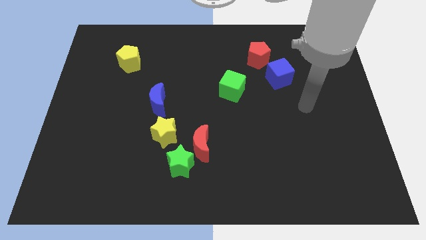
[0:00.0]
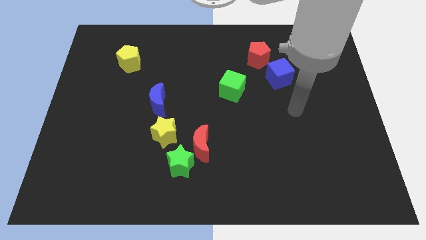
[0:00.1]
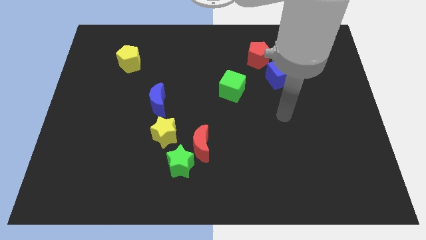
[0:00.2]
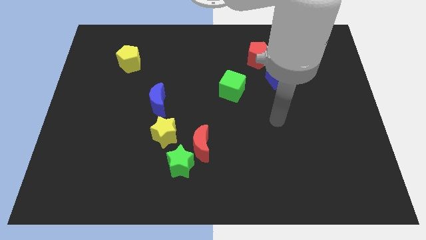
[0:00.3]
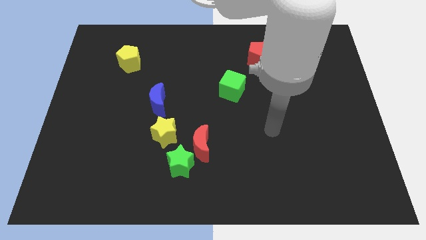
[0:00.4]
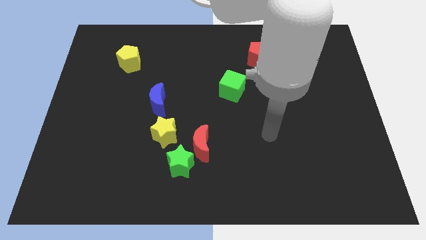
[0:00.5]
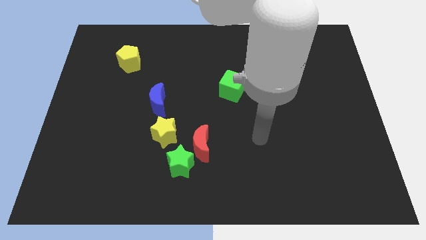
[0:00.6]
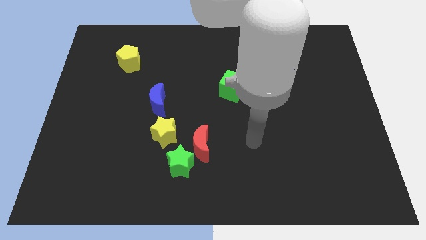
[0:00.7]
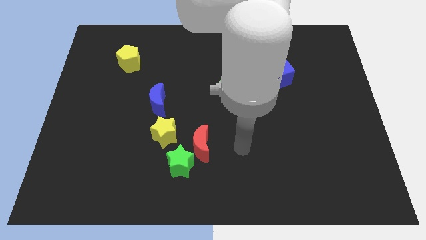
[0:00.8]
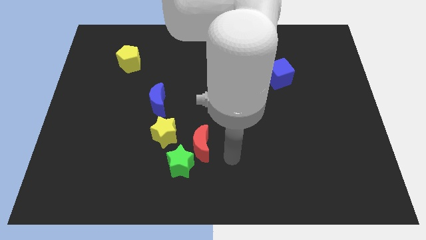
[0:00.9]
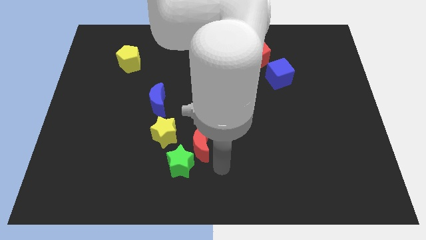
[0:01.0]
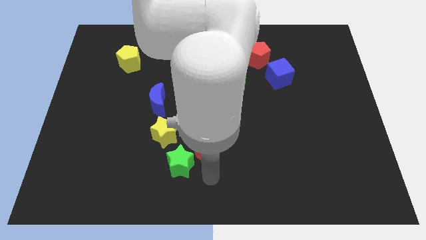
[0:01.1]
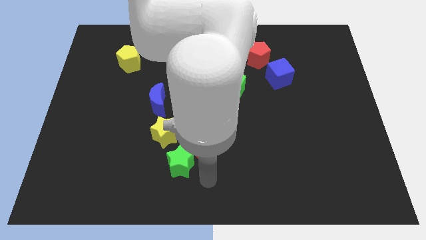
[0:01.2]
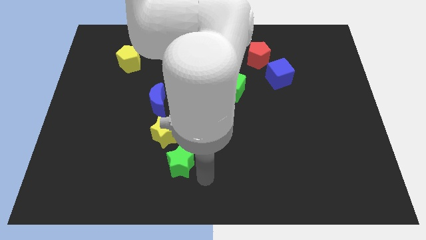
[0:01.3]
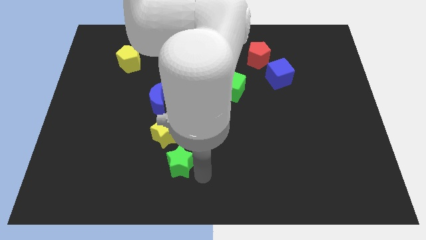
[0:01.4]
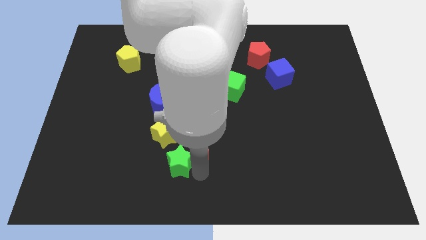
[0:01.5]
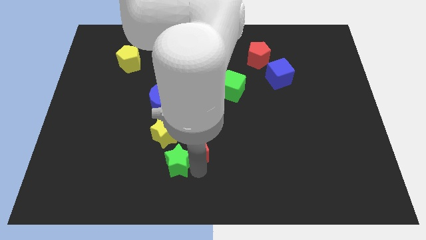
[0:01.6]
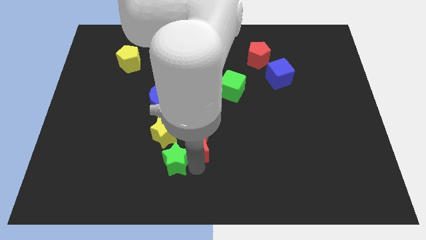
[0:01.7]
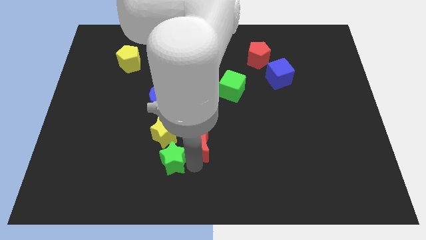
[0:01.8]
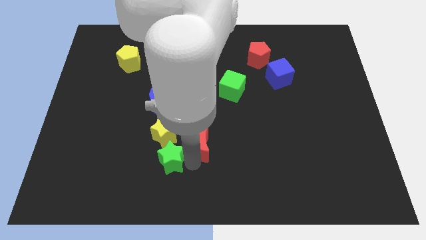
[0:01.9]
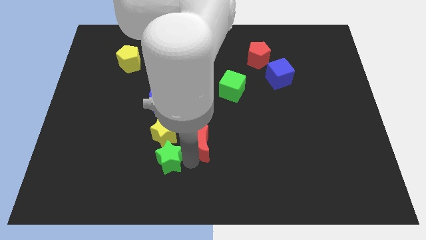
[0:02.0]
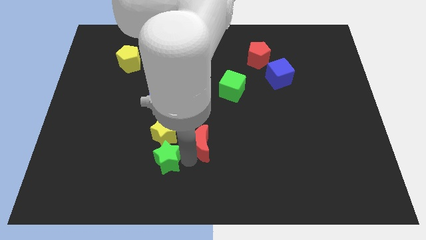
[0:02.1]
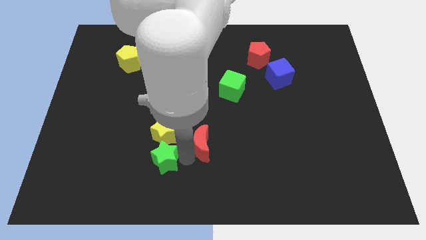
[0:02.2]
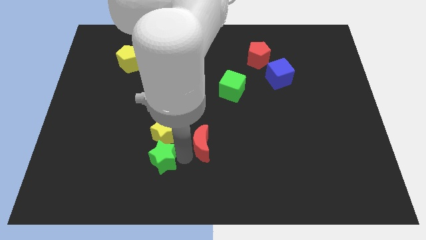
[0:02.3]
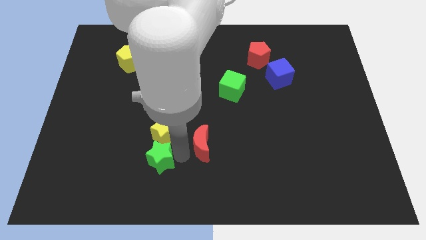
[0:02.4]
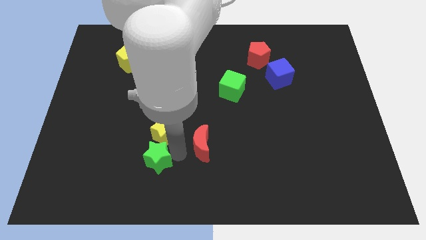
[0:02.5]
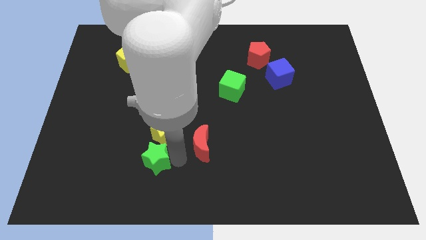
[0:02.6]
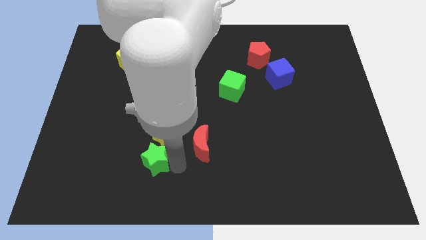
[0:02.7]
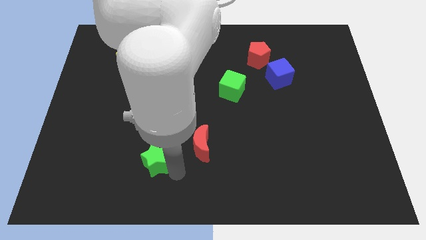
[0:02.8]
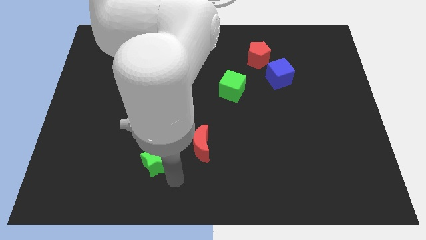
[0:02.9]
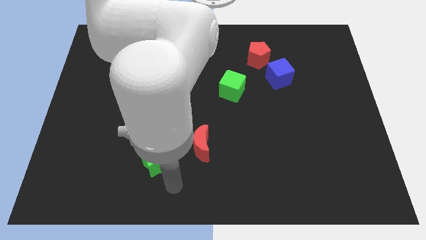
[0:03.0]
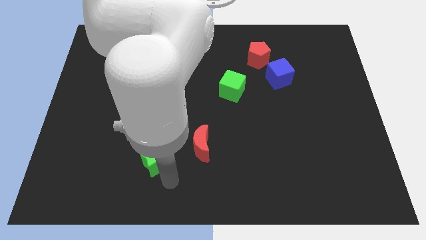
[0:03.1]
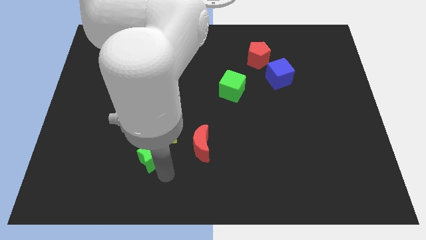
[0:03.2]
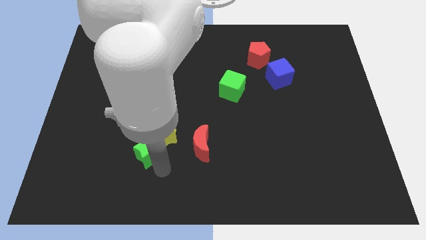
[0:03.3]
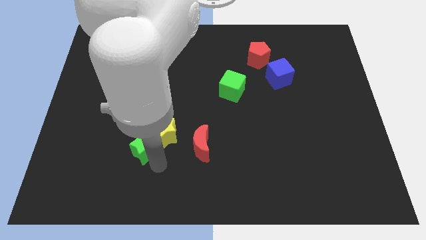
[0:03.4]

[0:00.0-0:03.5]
slightly move the green star upwards and to the left

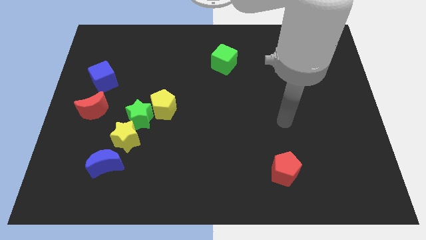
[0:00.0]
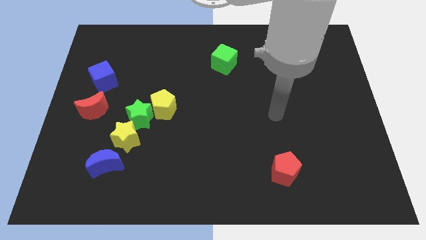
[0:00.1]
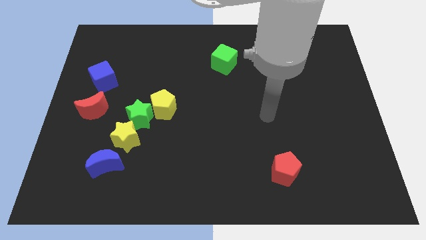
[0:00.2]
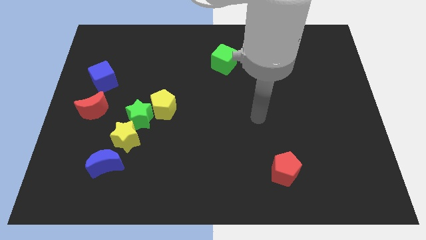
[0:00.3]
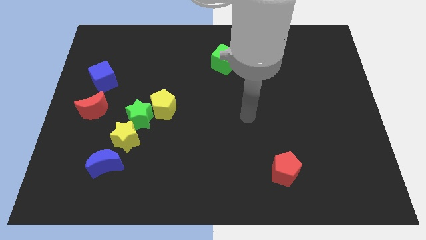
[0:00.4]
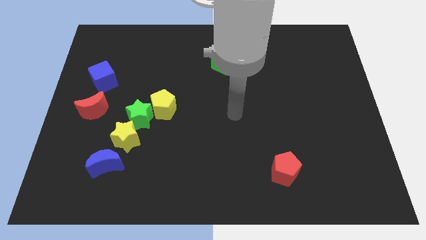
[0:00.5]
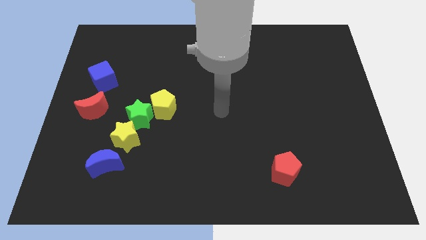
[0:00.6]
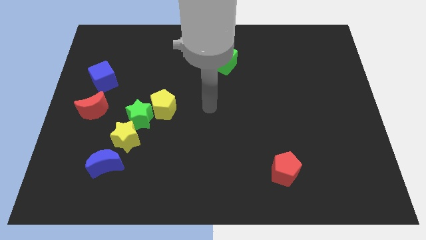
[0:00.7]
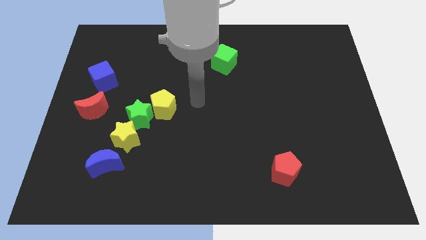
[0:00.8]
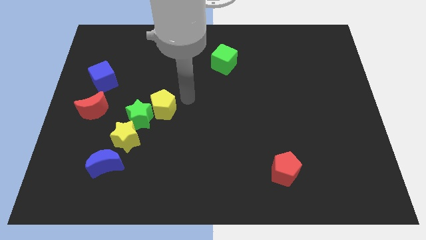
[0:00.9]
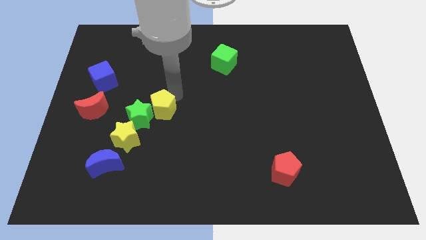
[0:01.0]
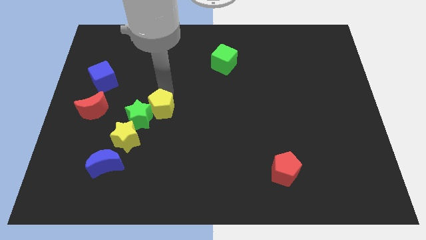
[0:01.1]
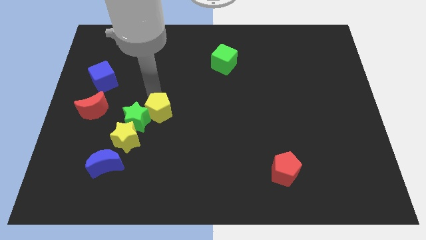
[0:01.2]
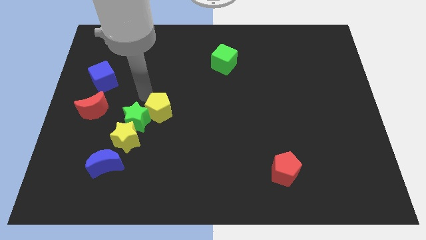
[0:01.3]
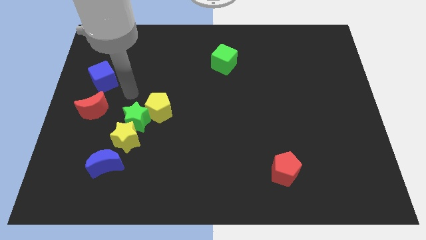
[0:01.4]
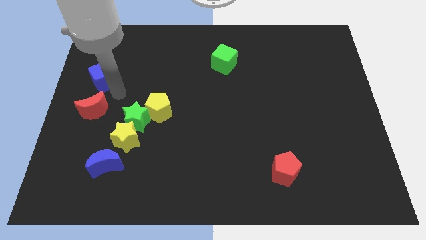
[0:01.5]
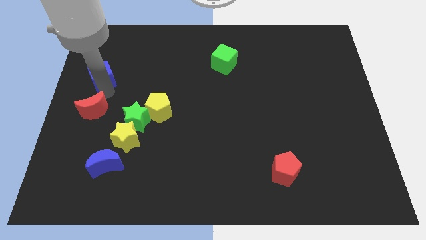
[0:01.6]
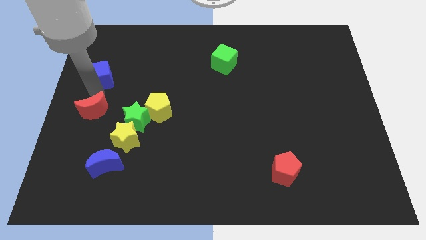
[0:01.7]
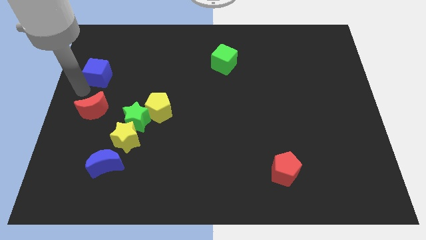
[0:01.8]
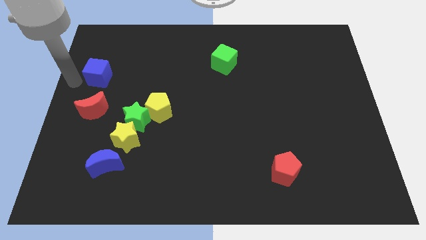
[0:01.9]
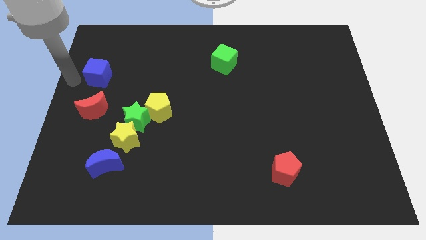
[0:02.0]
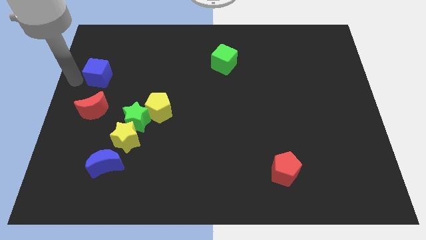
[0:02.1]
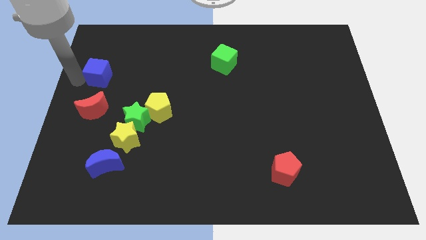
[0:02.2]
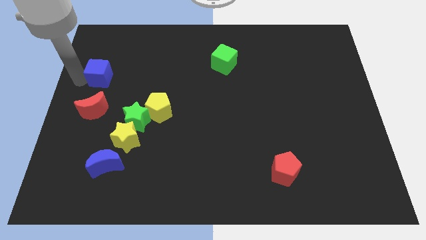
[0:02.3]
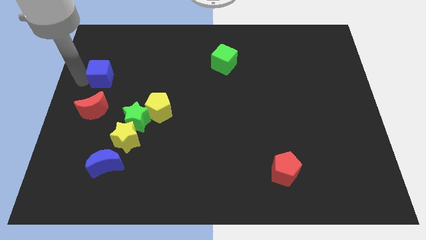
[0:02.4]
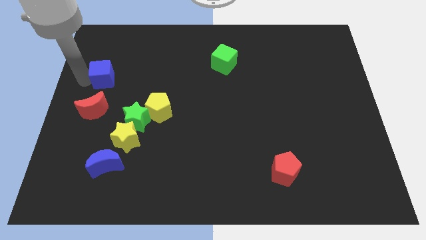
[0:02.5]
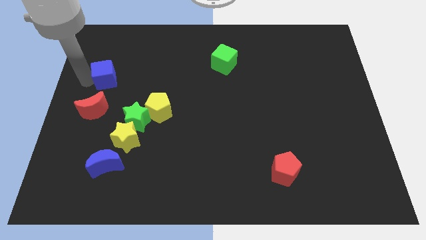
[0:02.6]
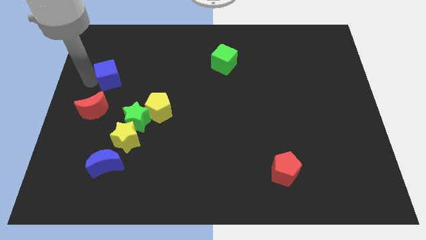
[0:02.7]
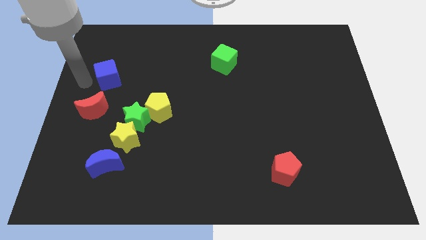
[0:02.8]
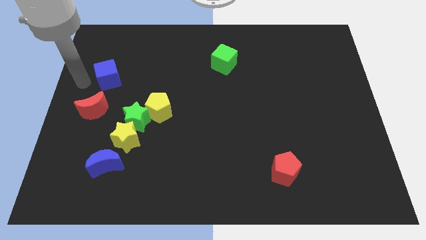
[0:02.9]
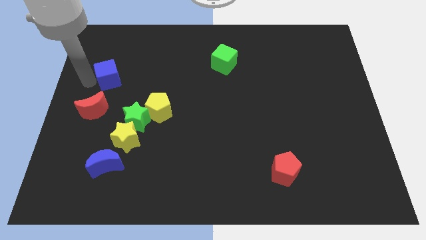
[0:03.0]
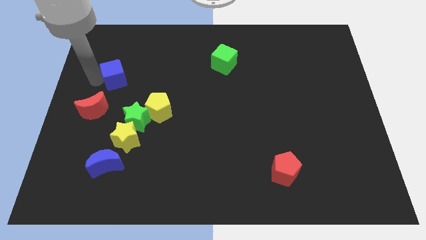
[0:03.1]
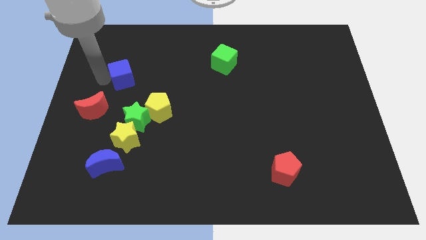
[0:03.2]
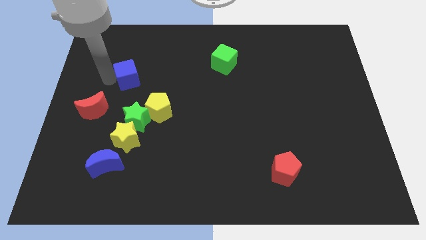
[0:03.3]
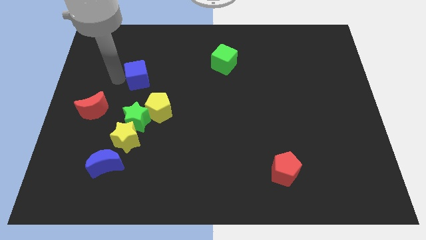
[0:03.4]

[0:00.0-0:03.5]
slightly push the blue cube to the right

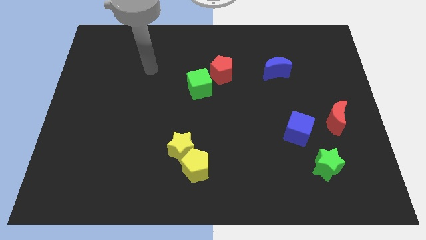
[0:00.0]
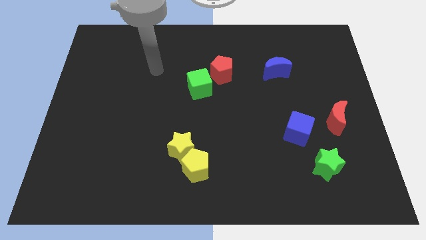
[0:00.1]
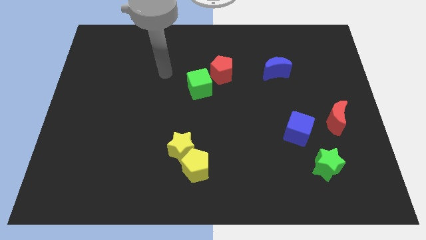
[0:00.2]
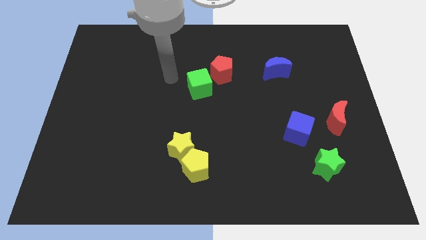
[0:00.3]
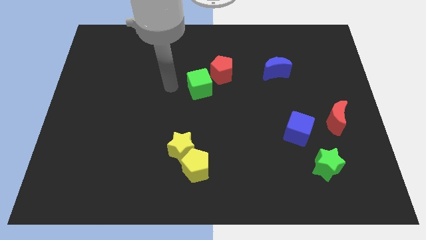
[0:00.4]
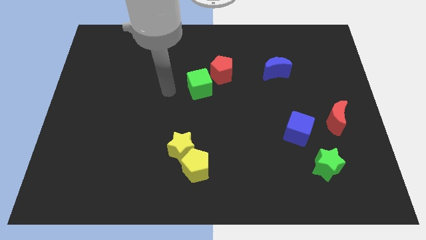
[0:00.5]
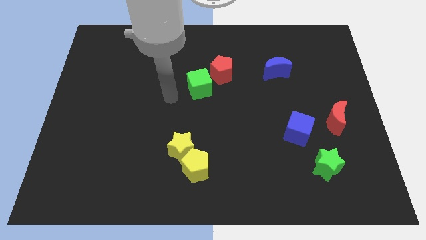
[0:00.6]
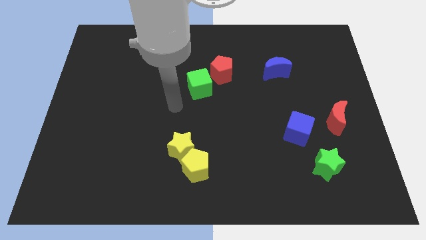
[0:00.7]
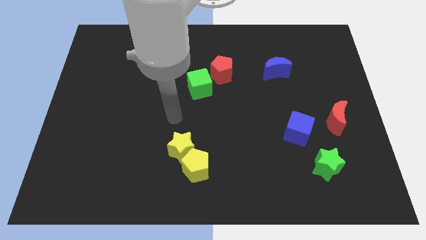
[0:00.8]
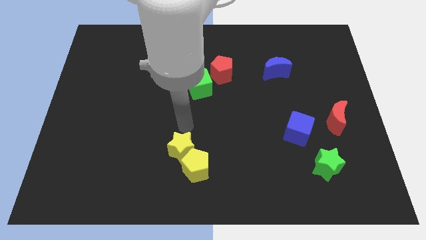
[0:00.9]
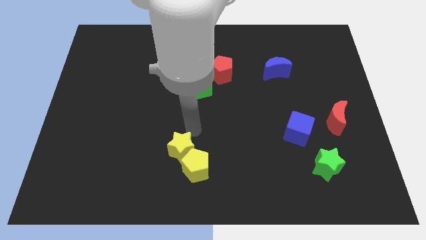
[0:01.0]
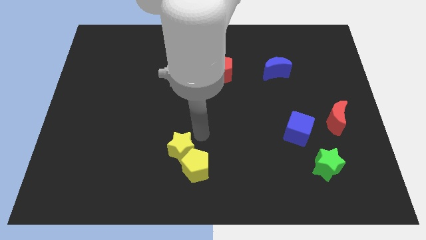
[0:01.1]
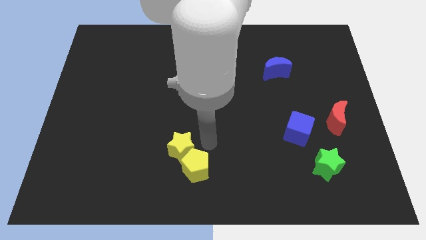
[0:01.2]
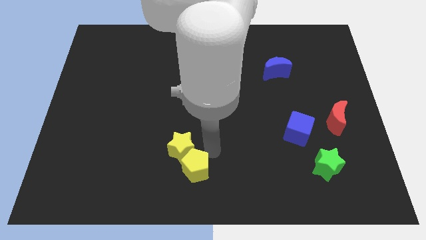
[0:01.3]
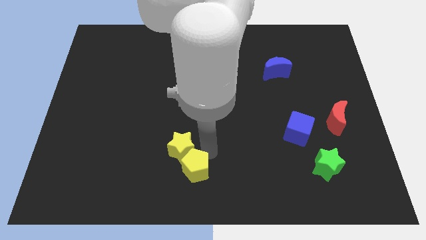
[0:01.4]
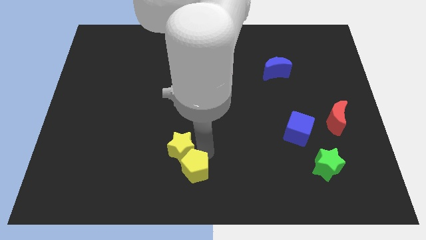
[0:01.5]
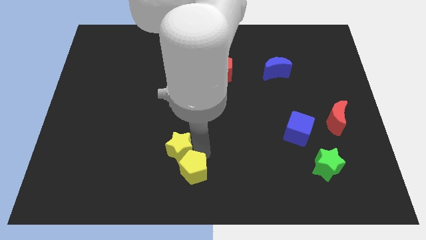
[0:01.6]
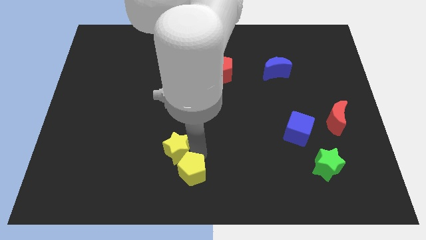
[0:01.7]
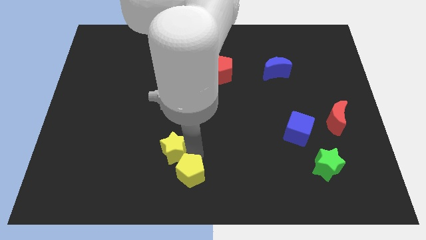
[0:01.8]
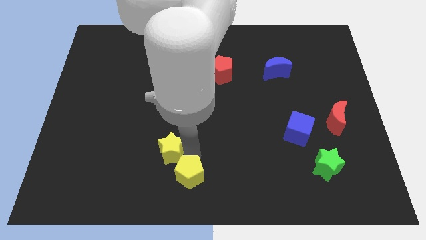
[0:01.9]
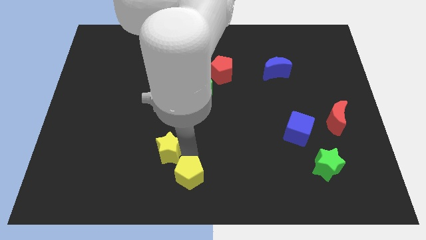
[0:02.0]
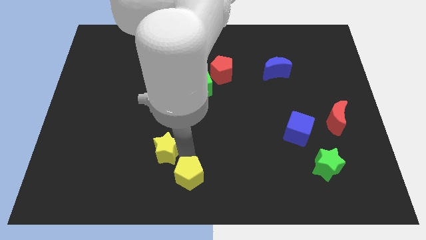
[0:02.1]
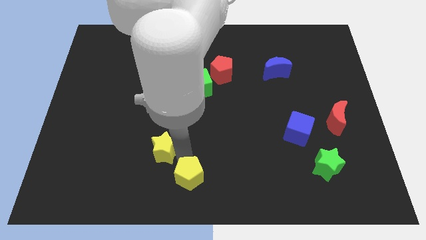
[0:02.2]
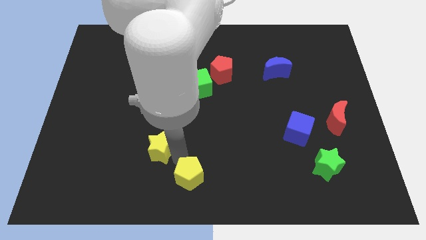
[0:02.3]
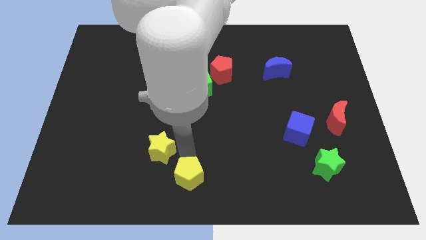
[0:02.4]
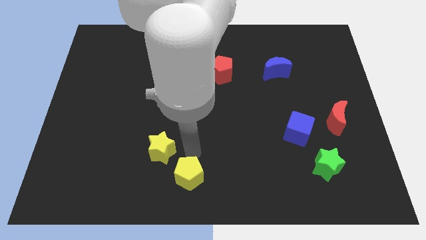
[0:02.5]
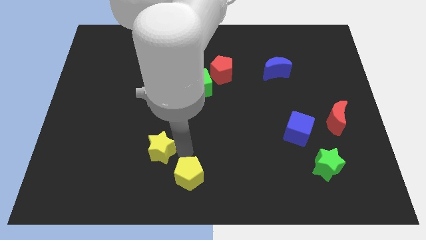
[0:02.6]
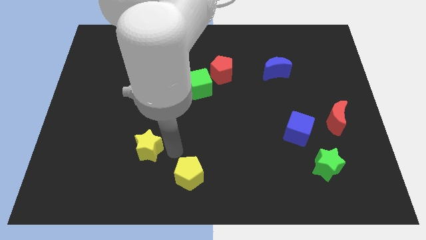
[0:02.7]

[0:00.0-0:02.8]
slightly slide the yellow star to the left
